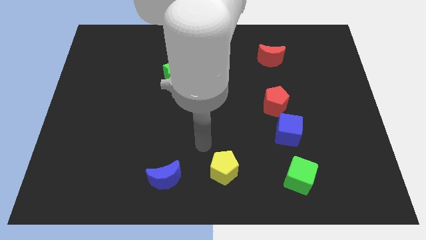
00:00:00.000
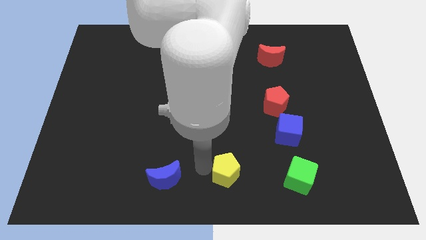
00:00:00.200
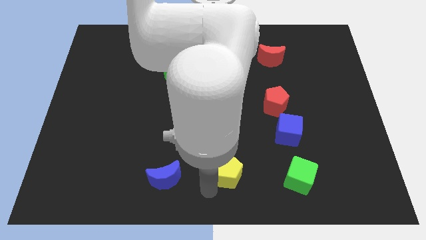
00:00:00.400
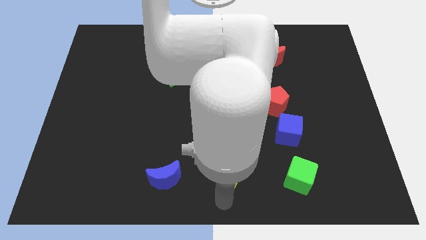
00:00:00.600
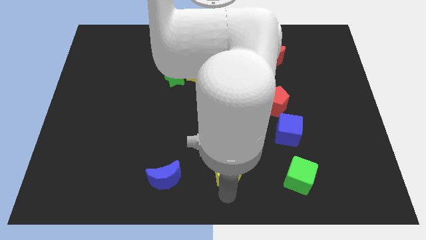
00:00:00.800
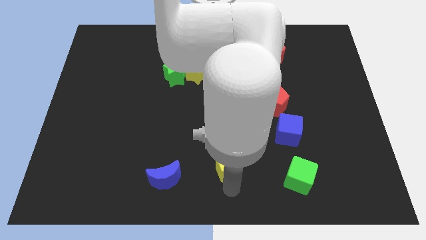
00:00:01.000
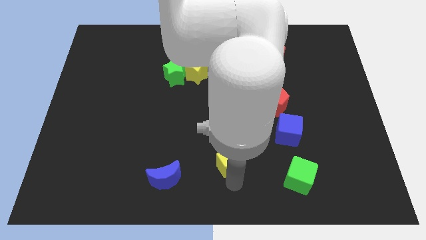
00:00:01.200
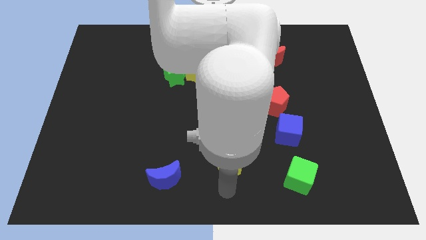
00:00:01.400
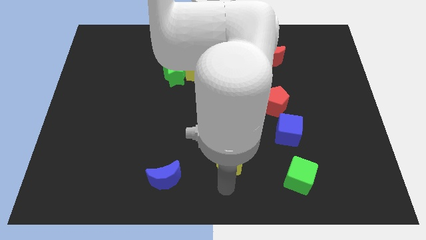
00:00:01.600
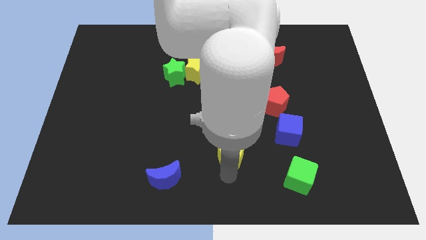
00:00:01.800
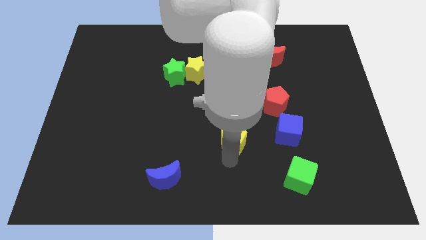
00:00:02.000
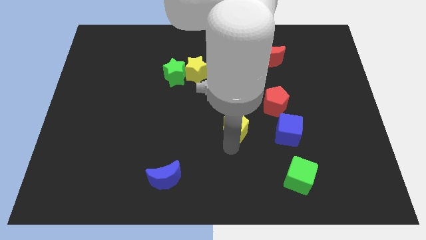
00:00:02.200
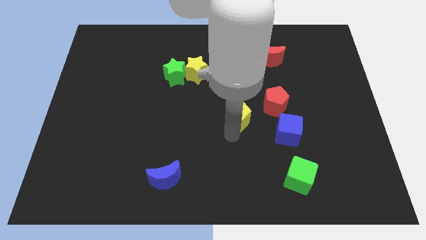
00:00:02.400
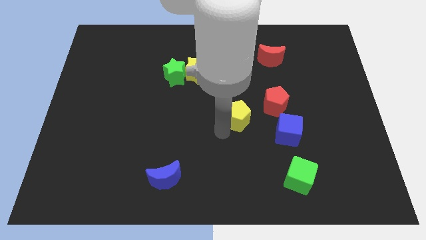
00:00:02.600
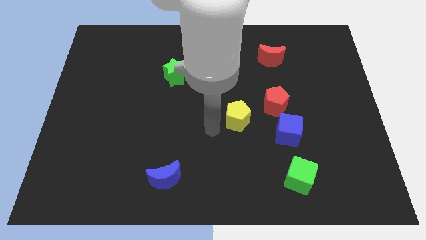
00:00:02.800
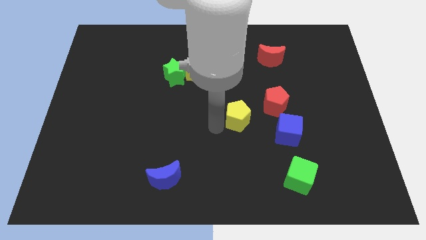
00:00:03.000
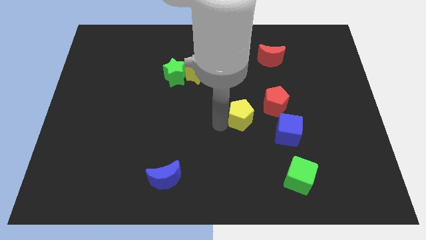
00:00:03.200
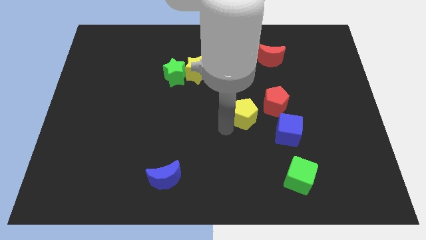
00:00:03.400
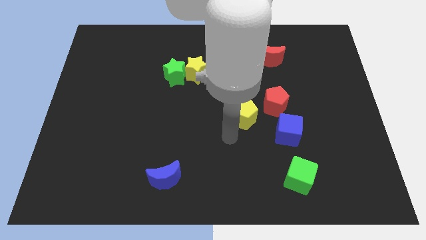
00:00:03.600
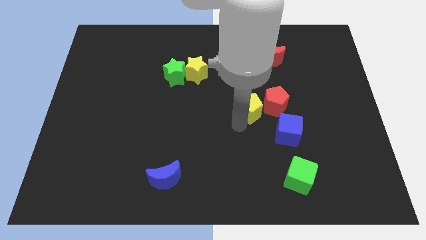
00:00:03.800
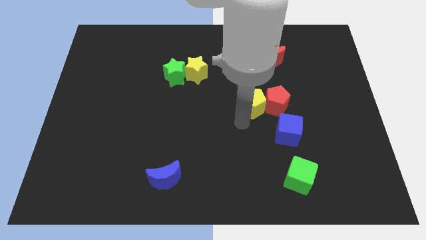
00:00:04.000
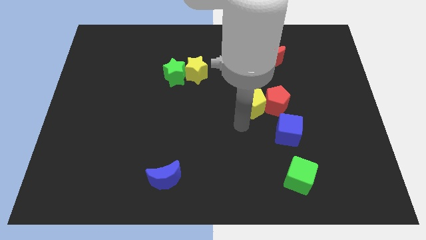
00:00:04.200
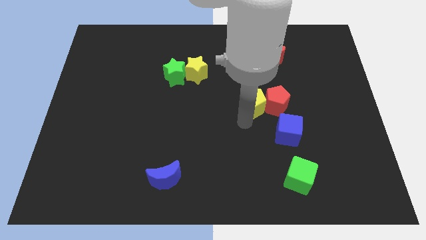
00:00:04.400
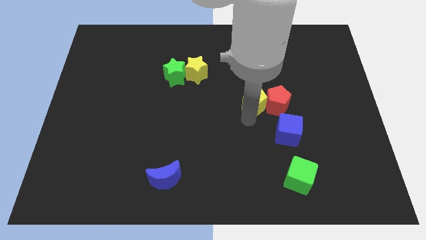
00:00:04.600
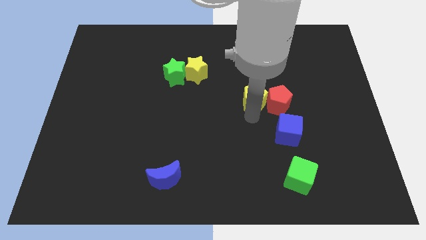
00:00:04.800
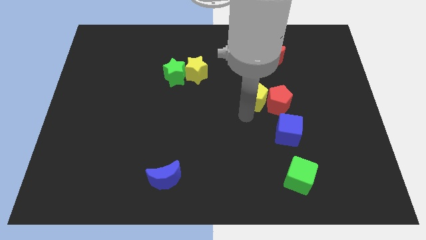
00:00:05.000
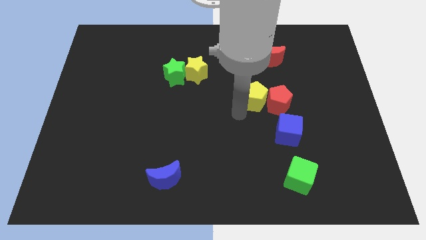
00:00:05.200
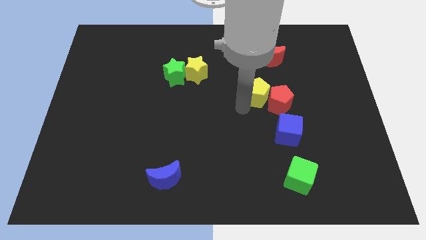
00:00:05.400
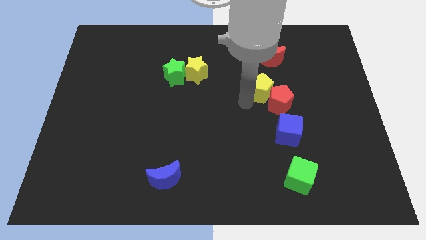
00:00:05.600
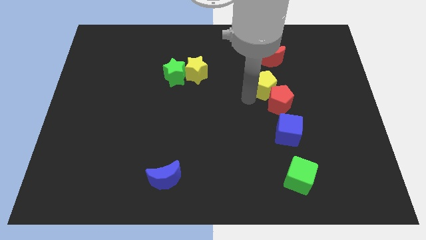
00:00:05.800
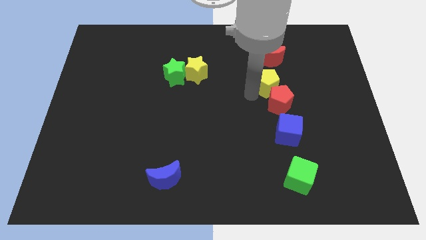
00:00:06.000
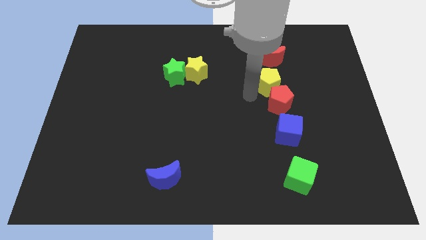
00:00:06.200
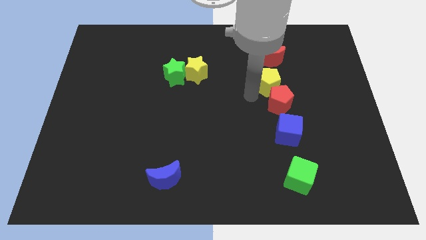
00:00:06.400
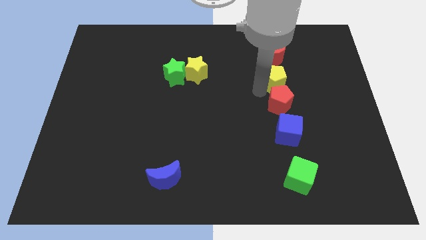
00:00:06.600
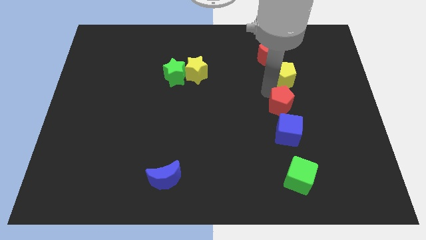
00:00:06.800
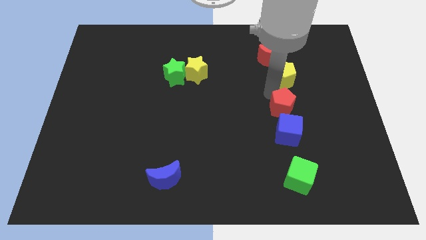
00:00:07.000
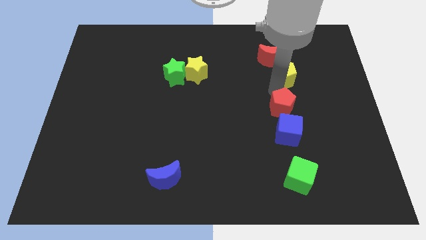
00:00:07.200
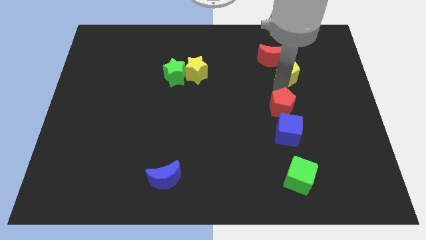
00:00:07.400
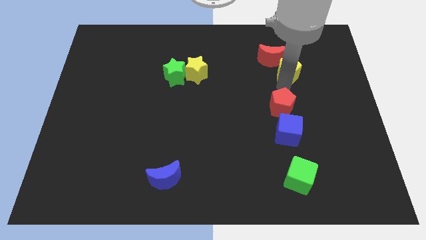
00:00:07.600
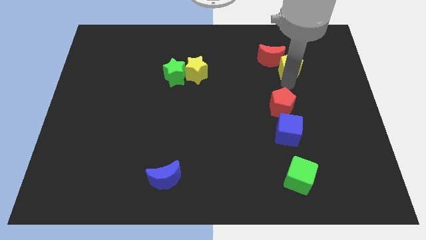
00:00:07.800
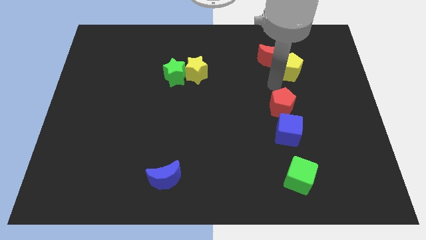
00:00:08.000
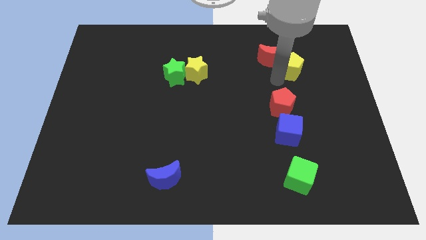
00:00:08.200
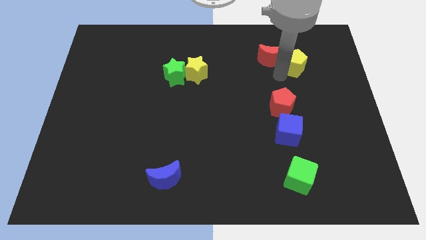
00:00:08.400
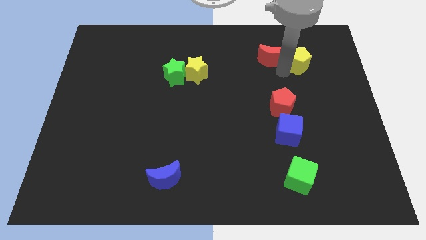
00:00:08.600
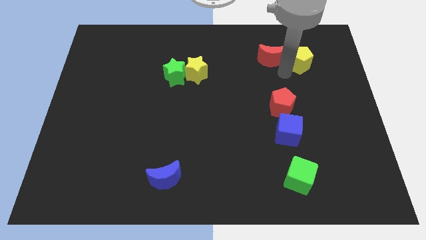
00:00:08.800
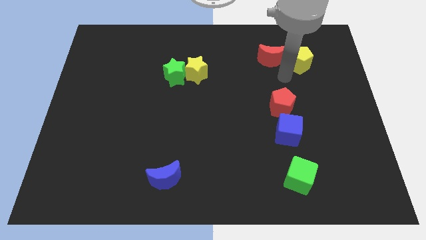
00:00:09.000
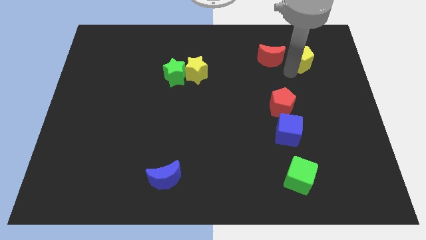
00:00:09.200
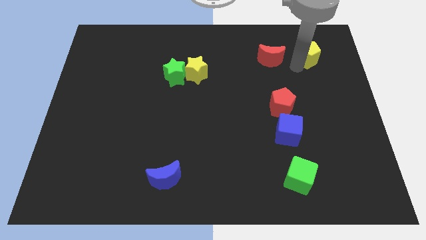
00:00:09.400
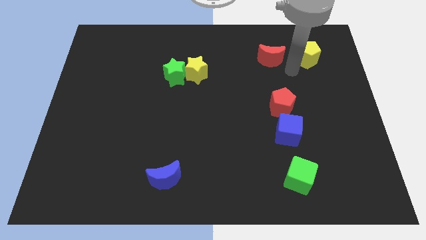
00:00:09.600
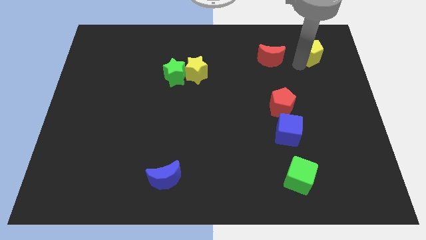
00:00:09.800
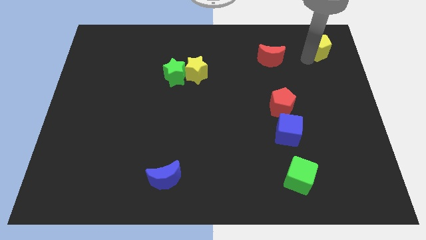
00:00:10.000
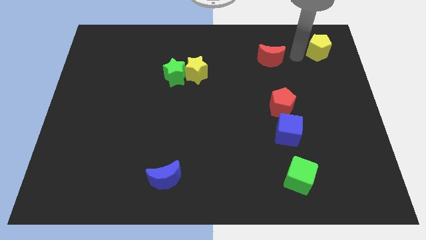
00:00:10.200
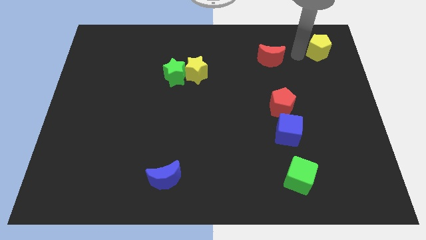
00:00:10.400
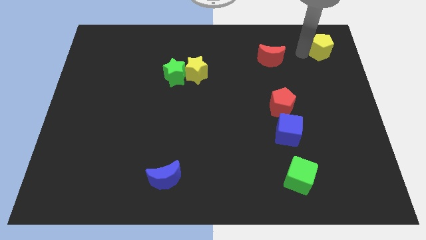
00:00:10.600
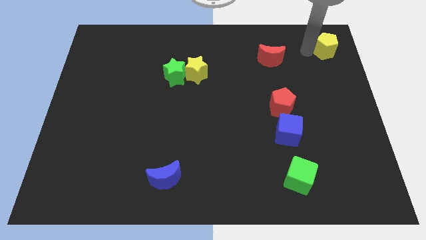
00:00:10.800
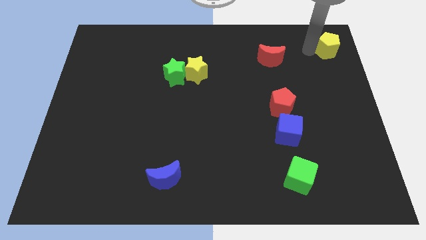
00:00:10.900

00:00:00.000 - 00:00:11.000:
push the yellow pentagon to the top right corner

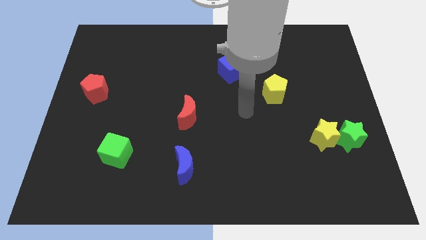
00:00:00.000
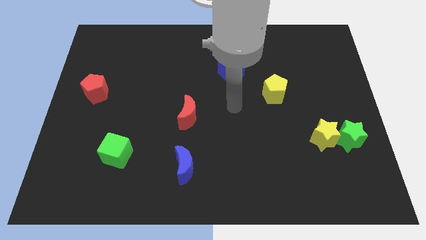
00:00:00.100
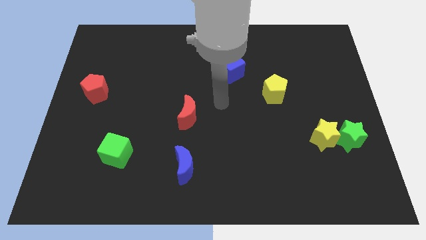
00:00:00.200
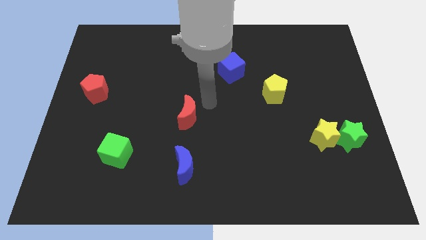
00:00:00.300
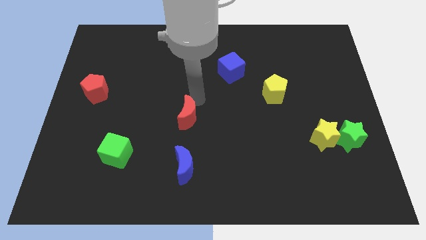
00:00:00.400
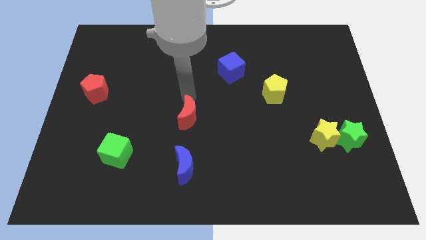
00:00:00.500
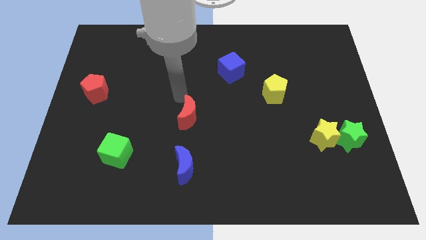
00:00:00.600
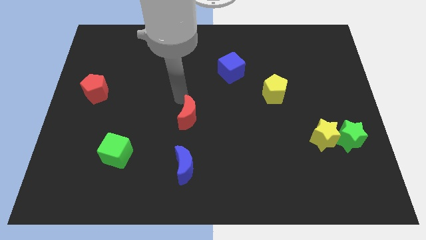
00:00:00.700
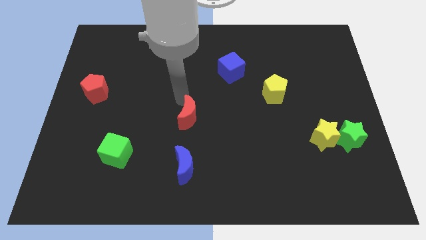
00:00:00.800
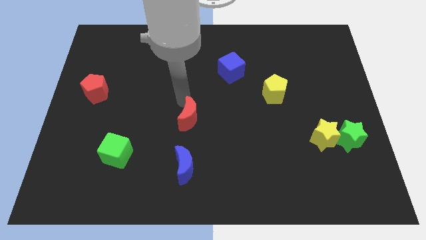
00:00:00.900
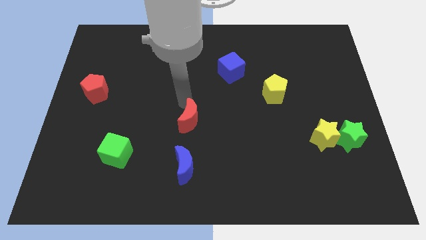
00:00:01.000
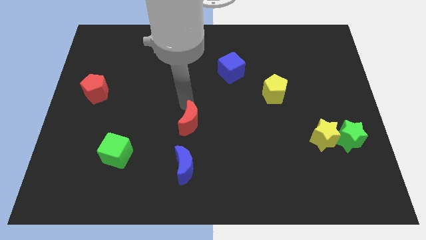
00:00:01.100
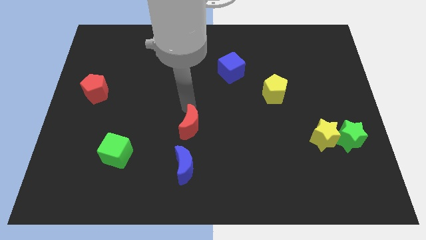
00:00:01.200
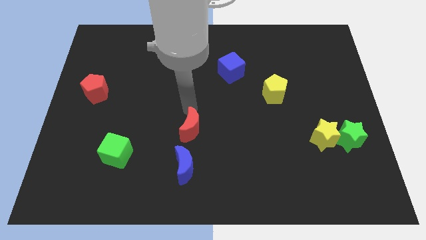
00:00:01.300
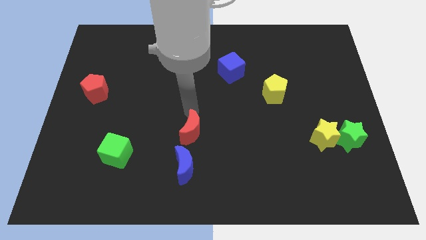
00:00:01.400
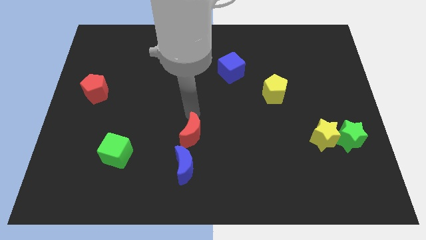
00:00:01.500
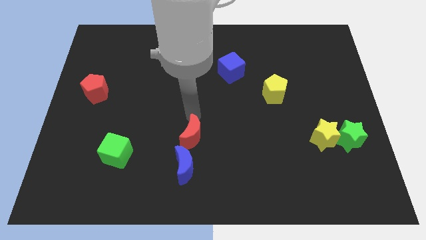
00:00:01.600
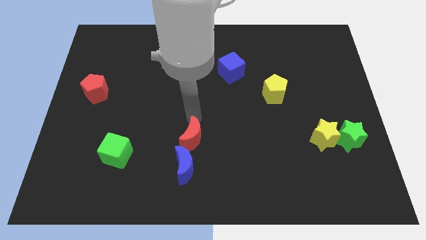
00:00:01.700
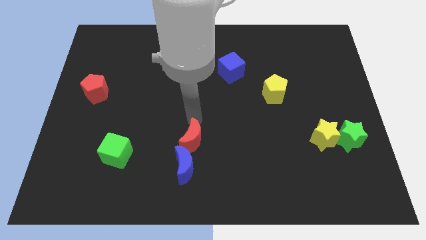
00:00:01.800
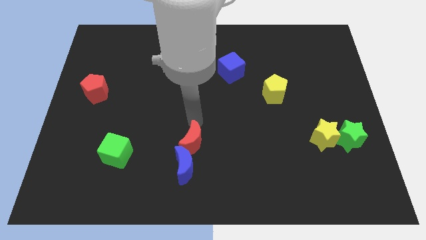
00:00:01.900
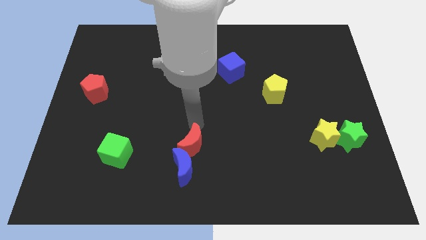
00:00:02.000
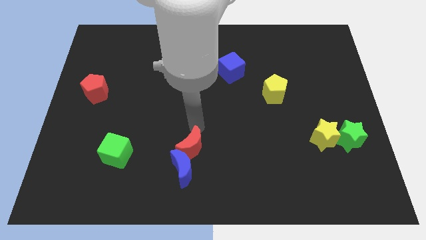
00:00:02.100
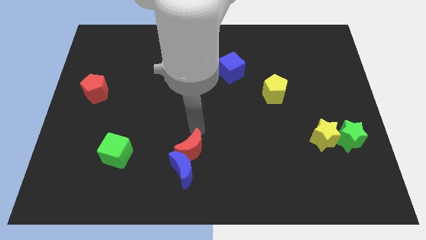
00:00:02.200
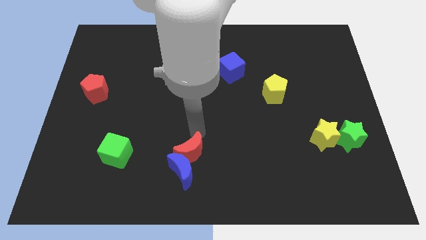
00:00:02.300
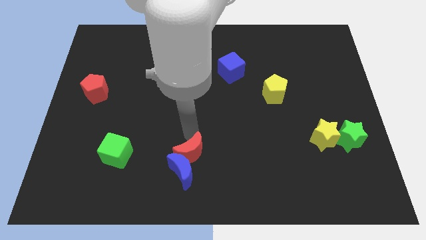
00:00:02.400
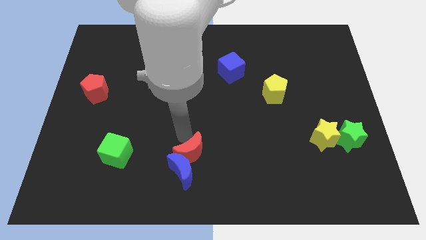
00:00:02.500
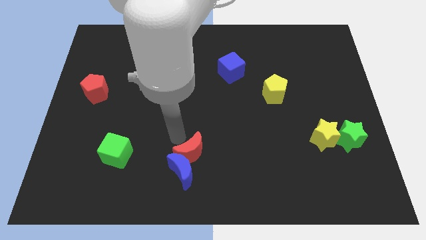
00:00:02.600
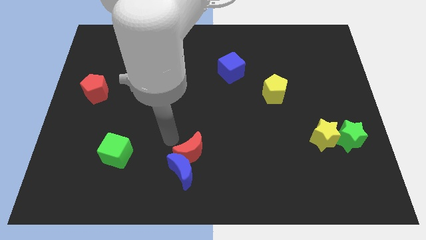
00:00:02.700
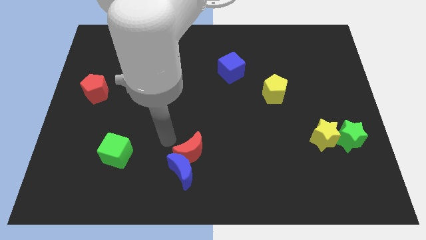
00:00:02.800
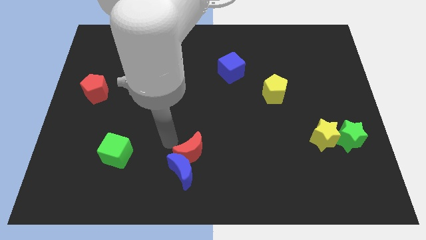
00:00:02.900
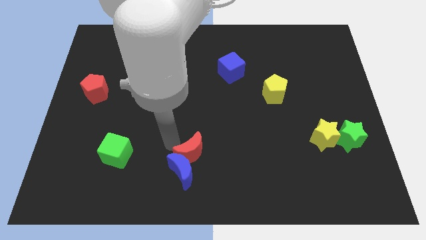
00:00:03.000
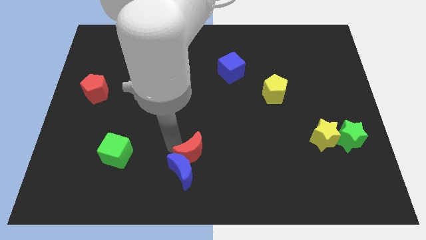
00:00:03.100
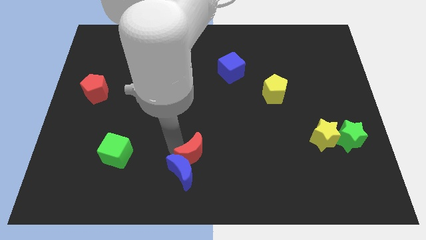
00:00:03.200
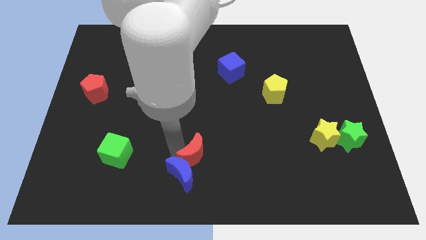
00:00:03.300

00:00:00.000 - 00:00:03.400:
push the red moon to the bottom
